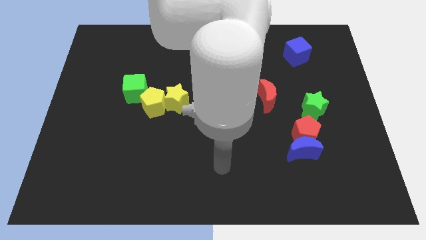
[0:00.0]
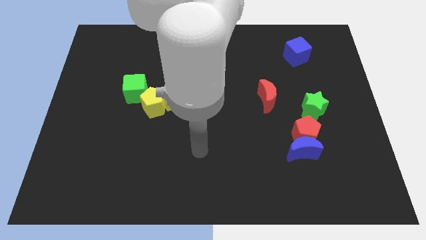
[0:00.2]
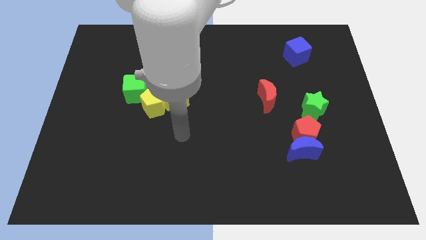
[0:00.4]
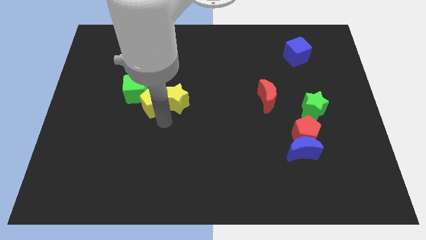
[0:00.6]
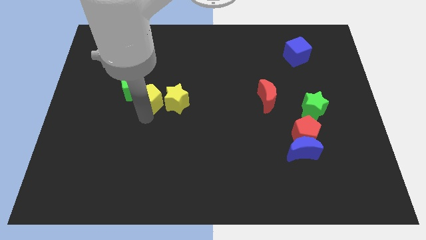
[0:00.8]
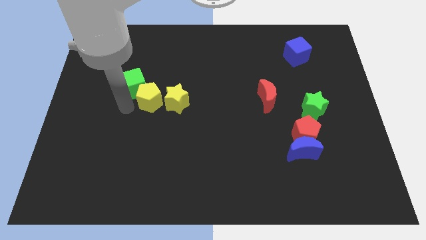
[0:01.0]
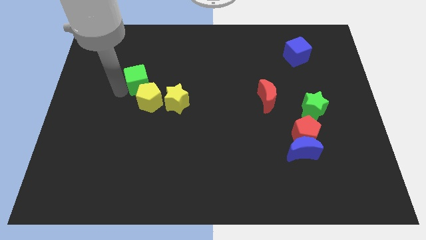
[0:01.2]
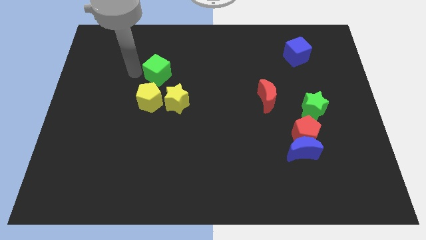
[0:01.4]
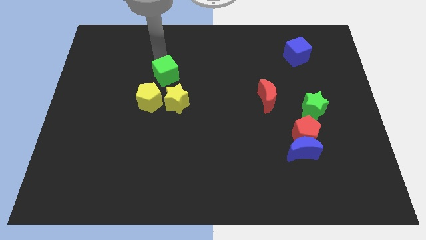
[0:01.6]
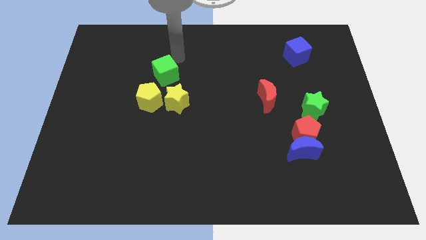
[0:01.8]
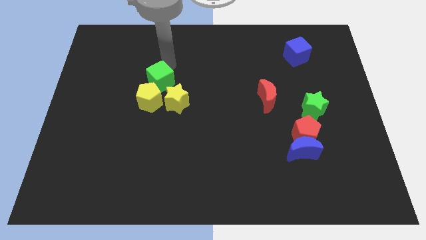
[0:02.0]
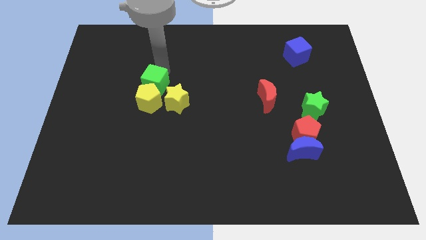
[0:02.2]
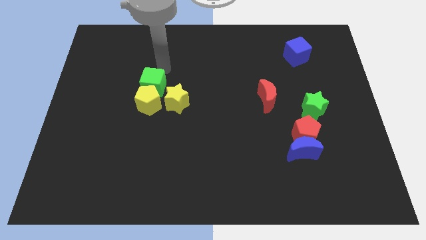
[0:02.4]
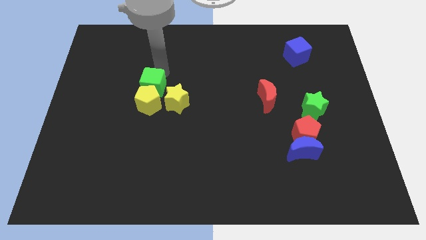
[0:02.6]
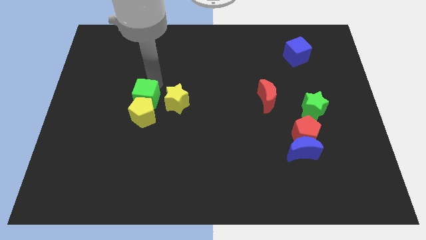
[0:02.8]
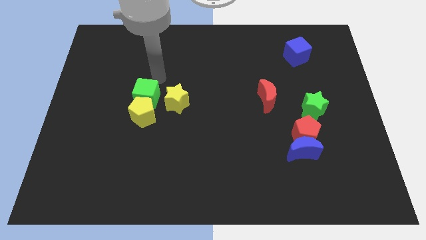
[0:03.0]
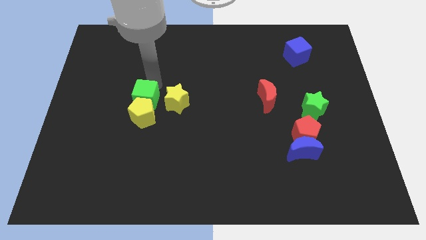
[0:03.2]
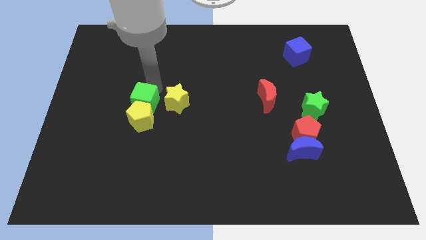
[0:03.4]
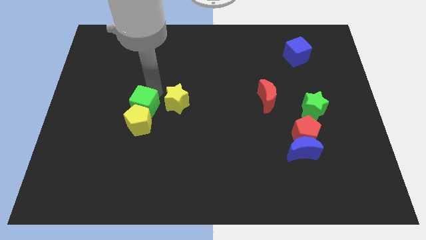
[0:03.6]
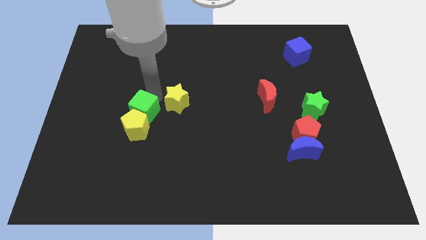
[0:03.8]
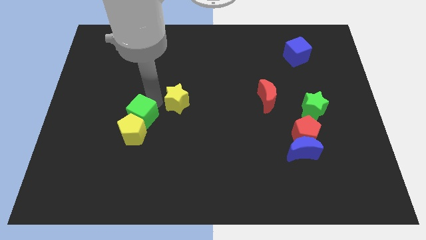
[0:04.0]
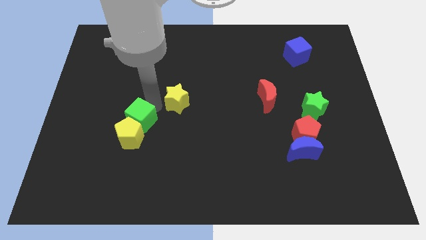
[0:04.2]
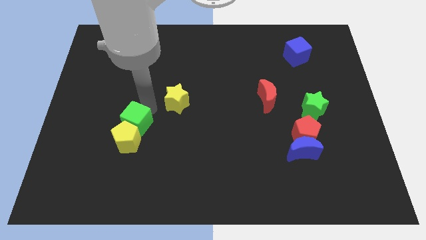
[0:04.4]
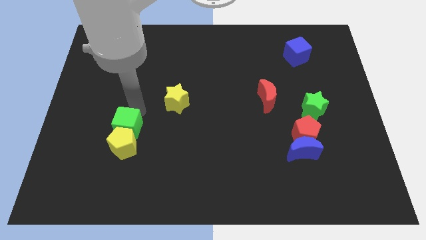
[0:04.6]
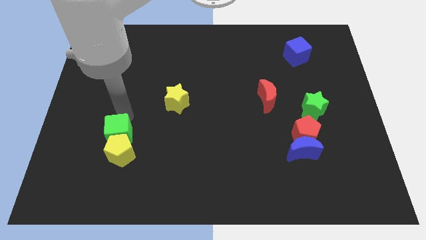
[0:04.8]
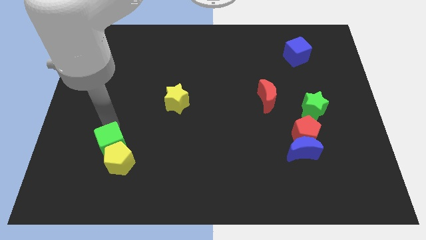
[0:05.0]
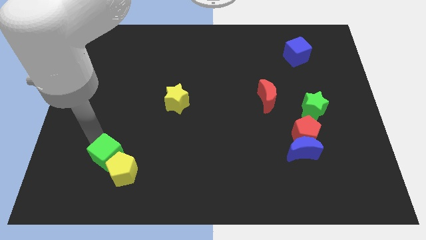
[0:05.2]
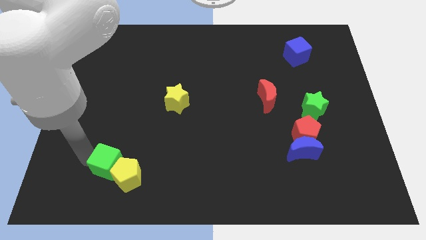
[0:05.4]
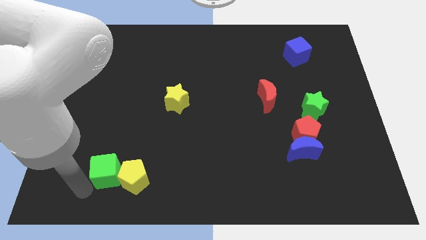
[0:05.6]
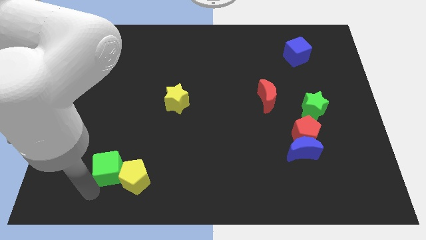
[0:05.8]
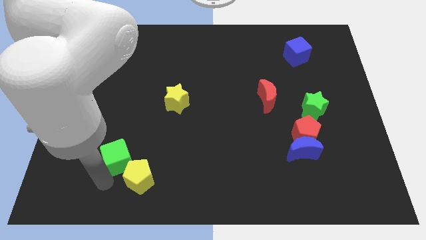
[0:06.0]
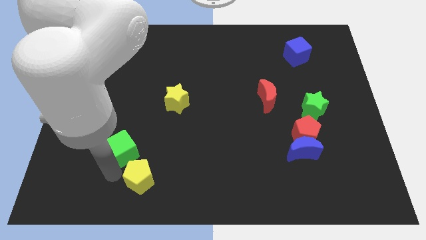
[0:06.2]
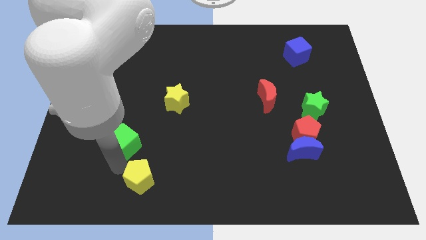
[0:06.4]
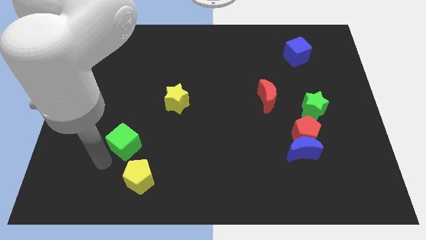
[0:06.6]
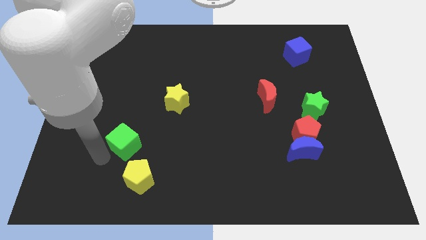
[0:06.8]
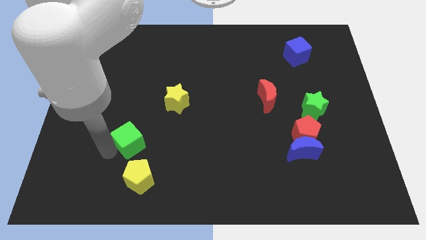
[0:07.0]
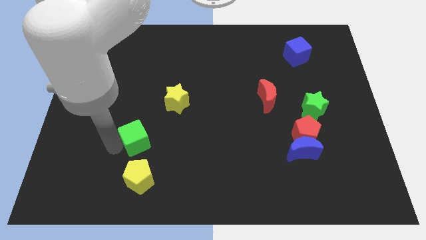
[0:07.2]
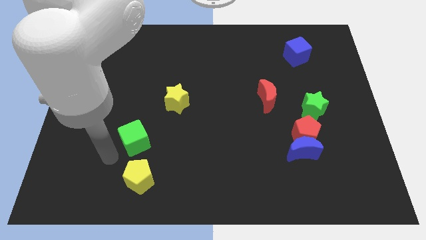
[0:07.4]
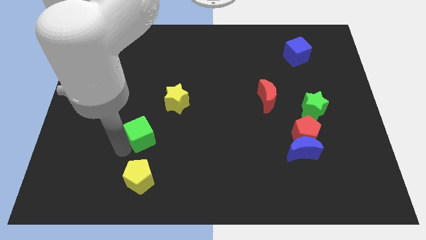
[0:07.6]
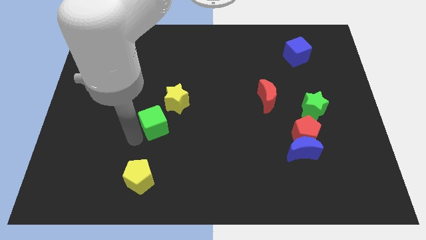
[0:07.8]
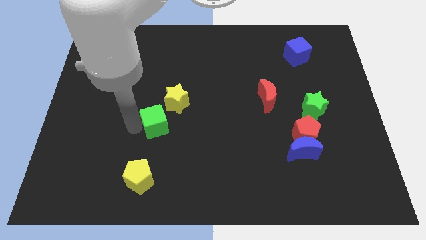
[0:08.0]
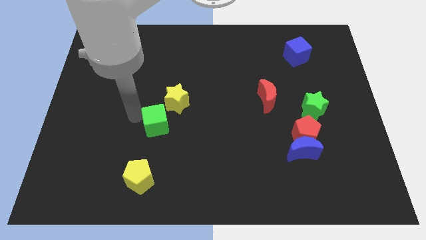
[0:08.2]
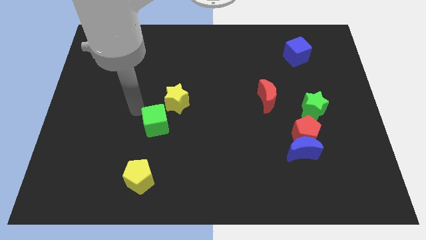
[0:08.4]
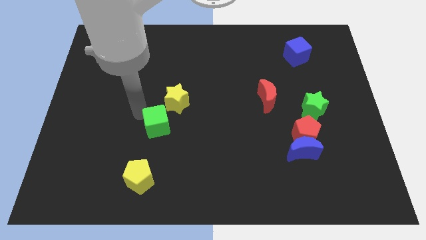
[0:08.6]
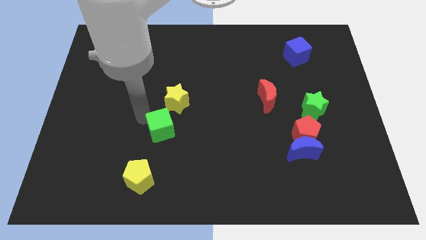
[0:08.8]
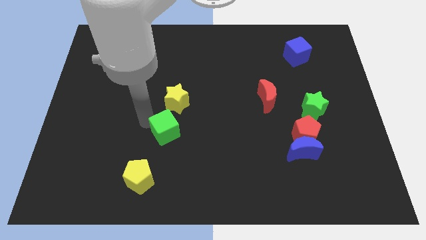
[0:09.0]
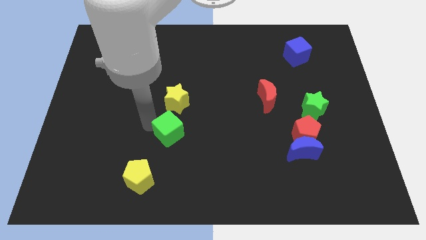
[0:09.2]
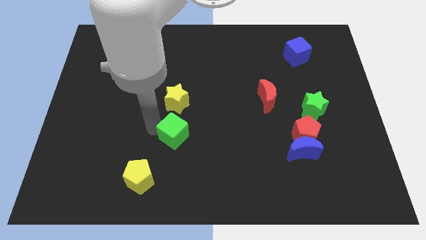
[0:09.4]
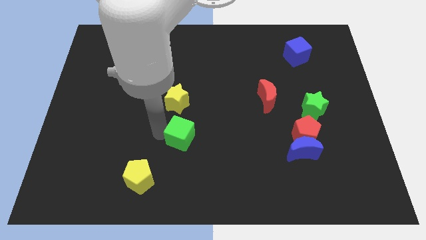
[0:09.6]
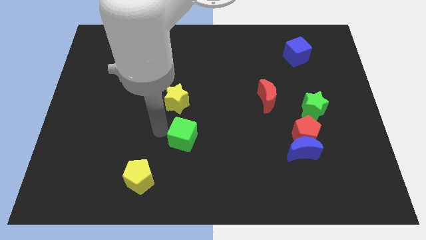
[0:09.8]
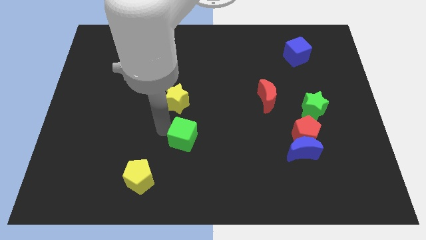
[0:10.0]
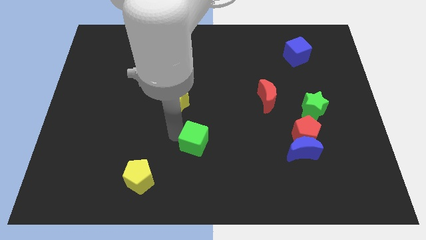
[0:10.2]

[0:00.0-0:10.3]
move the green cube down and then to the right

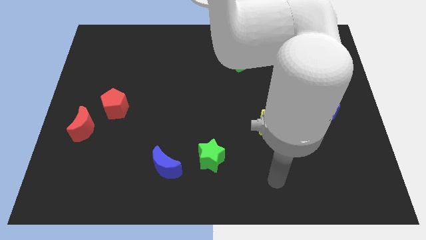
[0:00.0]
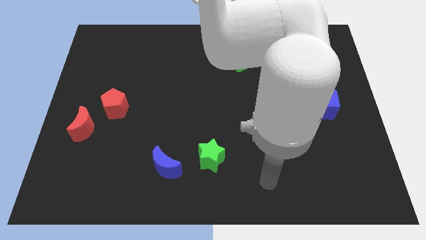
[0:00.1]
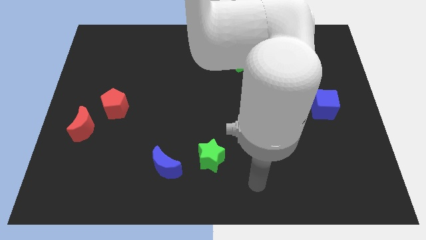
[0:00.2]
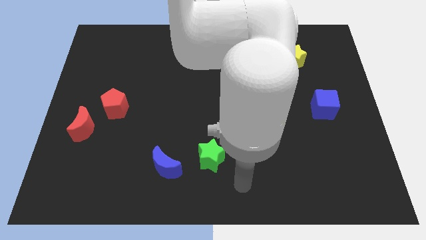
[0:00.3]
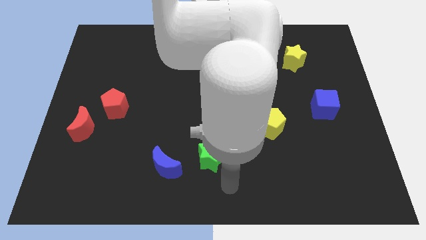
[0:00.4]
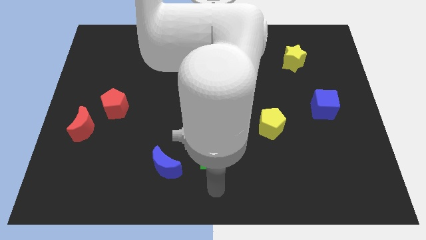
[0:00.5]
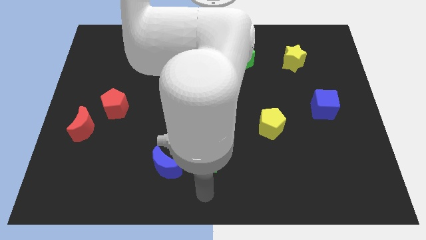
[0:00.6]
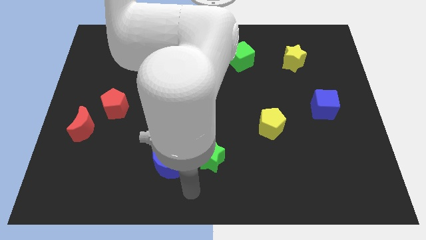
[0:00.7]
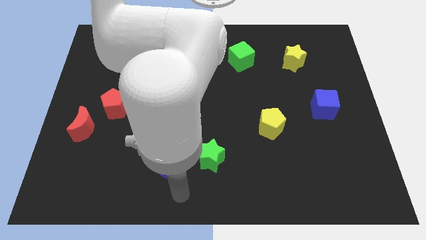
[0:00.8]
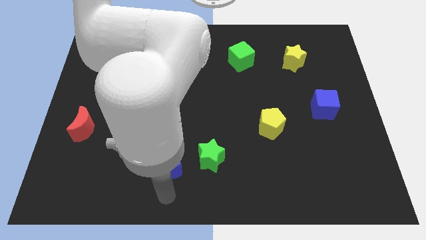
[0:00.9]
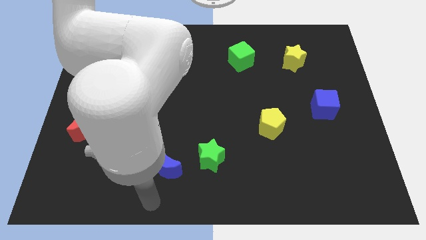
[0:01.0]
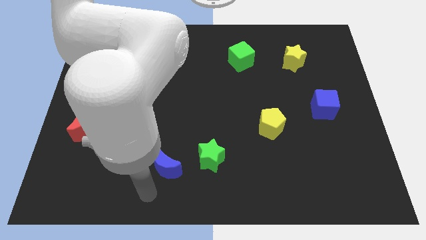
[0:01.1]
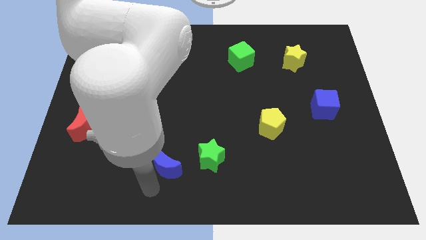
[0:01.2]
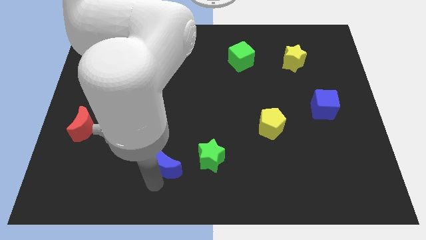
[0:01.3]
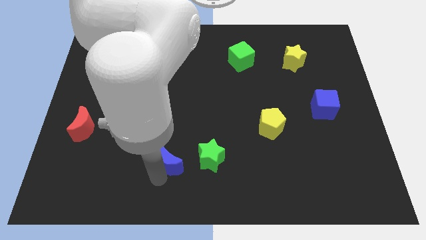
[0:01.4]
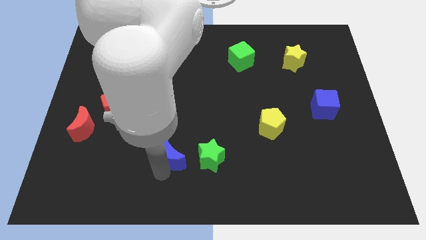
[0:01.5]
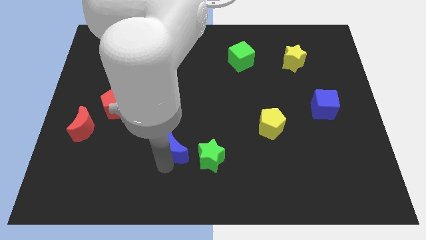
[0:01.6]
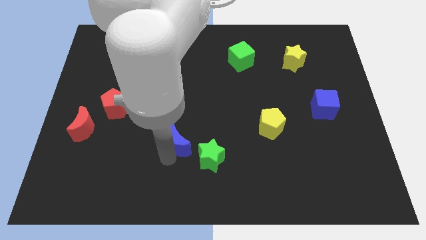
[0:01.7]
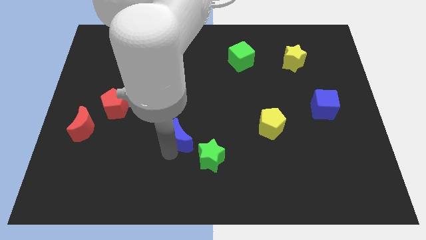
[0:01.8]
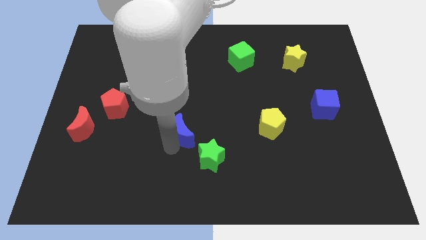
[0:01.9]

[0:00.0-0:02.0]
move the blue moon a bit diagonally up and to the right

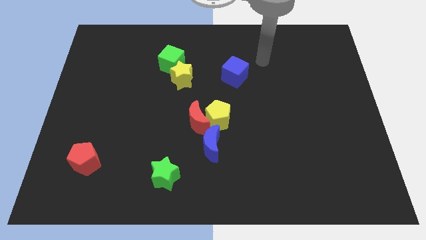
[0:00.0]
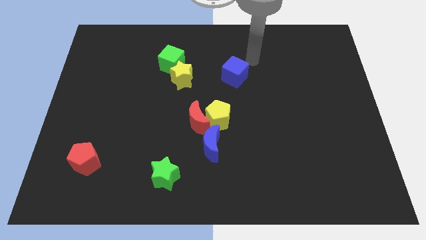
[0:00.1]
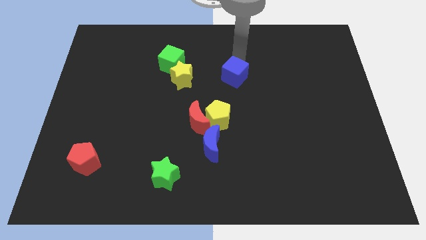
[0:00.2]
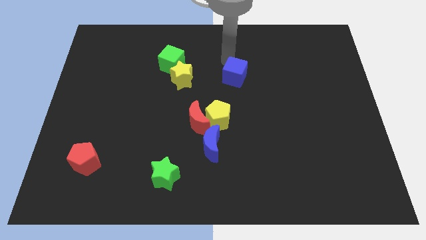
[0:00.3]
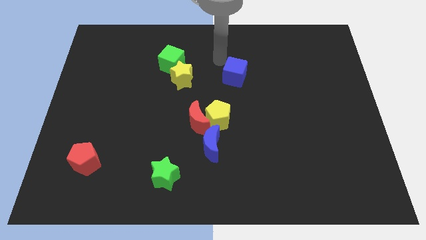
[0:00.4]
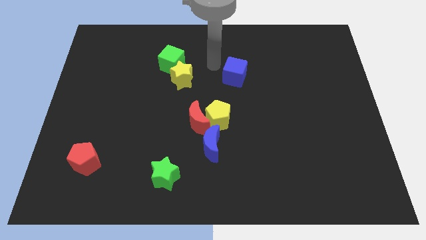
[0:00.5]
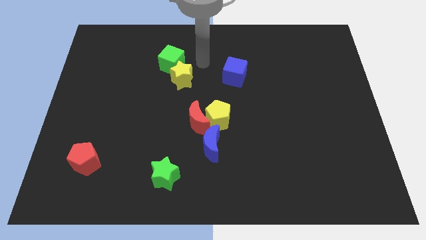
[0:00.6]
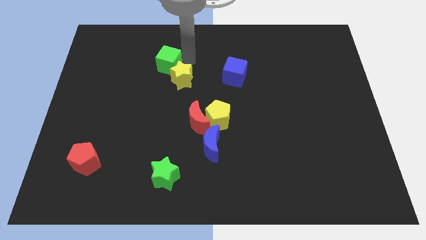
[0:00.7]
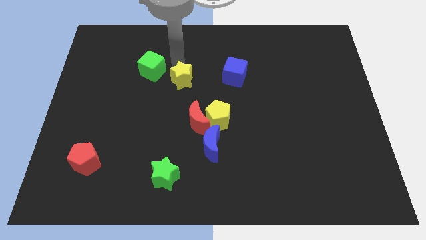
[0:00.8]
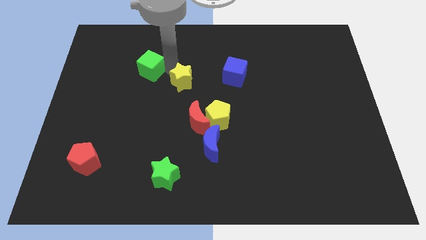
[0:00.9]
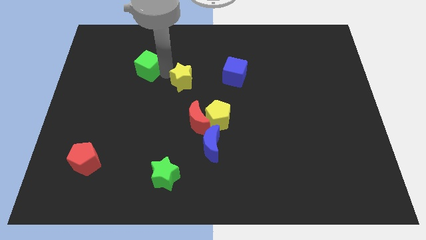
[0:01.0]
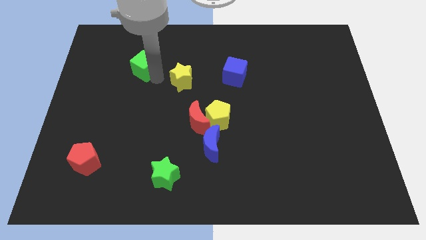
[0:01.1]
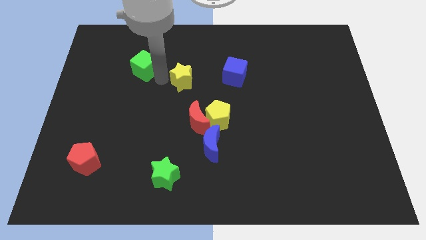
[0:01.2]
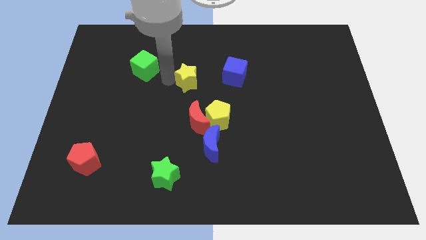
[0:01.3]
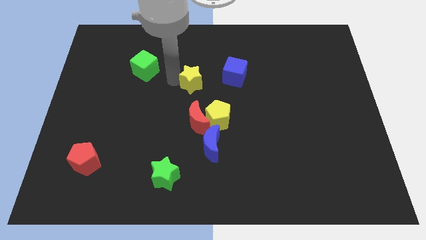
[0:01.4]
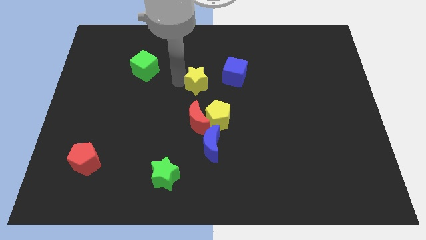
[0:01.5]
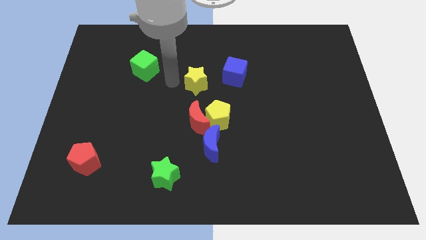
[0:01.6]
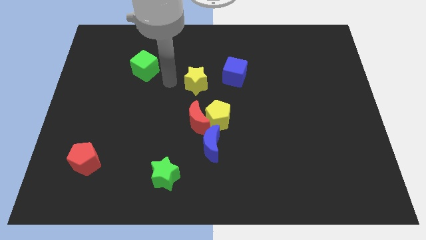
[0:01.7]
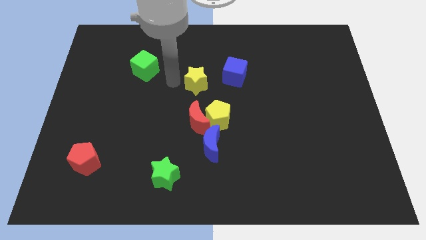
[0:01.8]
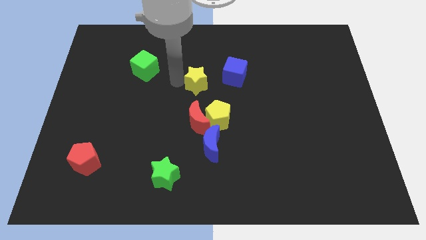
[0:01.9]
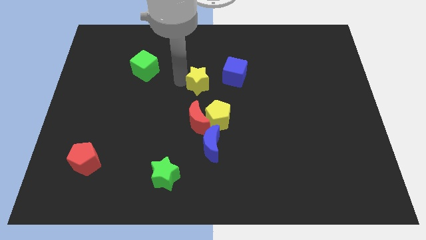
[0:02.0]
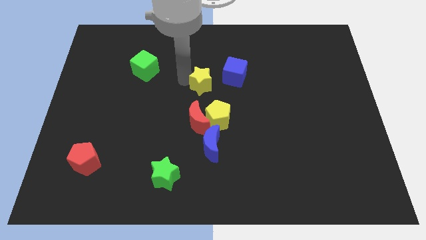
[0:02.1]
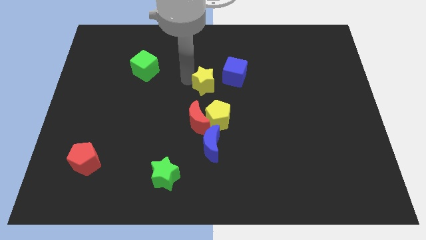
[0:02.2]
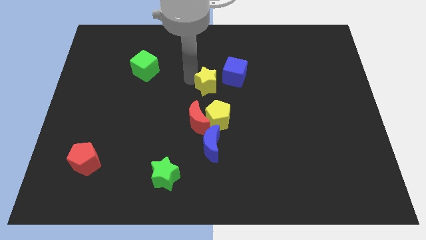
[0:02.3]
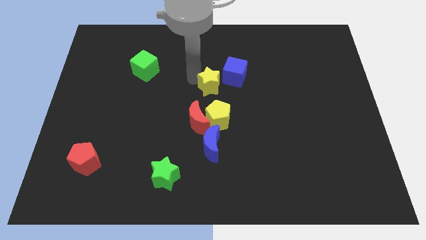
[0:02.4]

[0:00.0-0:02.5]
slightly move the yellow star right
